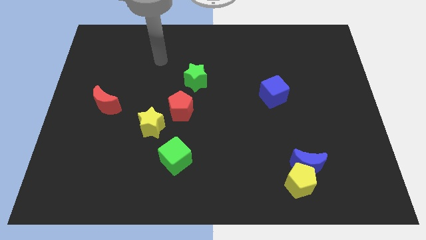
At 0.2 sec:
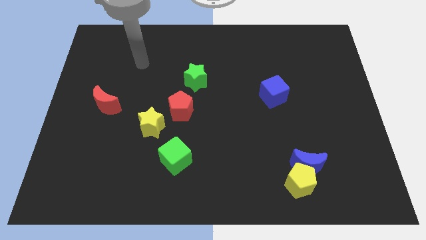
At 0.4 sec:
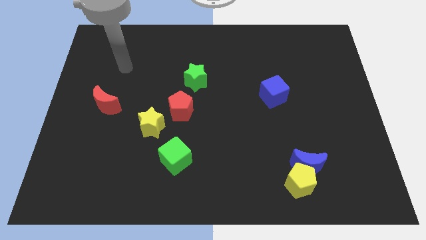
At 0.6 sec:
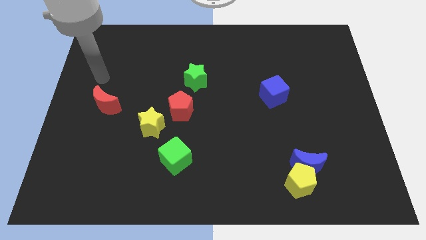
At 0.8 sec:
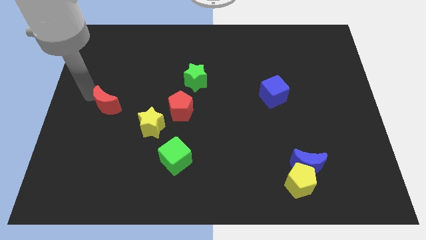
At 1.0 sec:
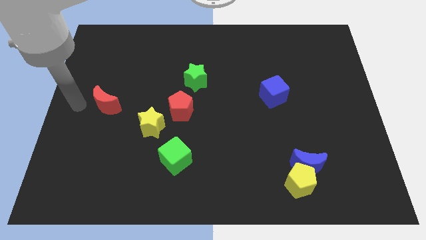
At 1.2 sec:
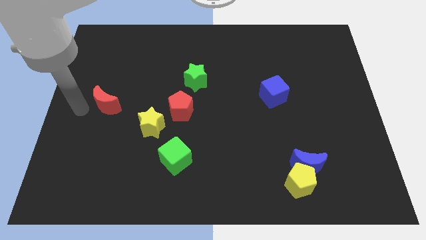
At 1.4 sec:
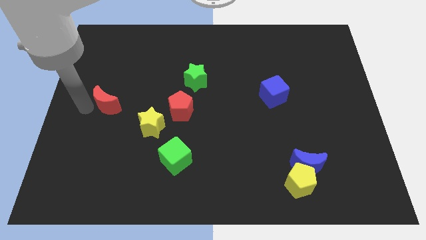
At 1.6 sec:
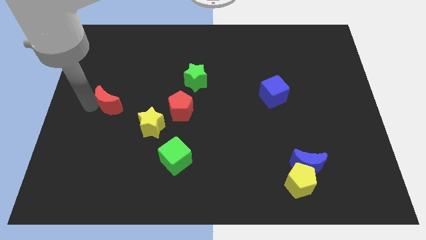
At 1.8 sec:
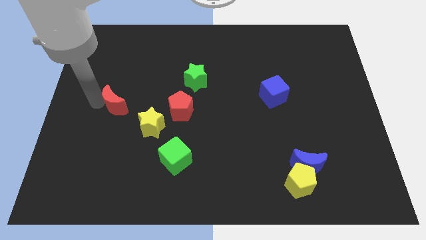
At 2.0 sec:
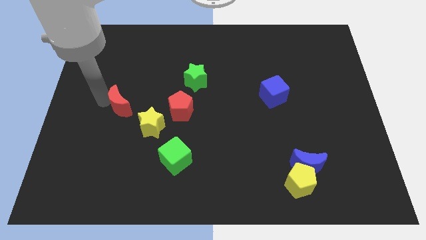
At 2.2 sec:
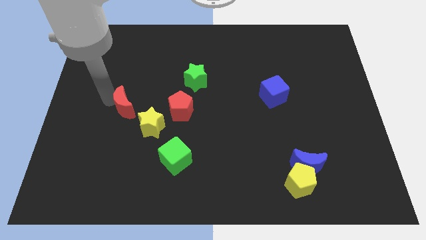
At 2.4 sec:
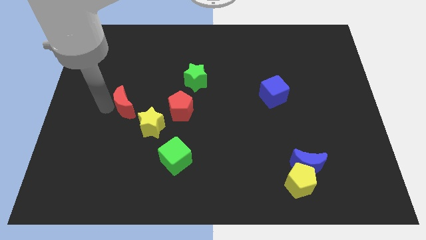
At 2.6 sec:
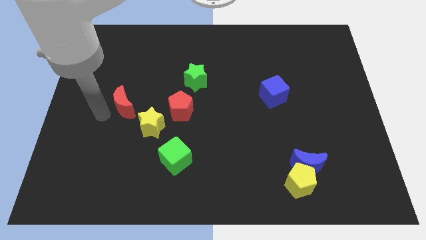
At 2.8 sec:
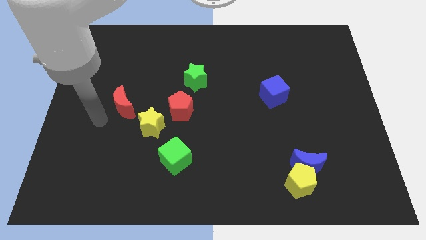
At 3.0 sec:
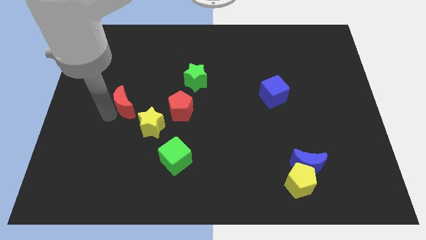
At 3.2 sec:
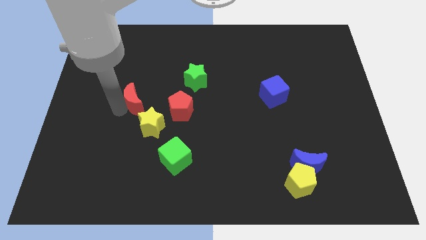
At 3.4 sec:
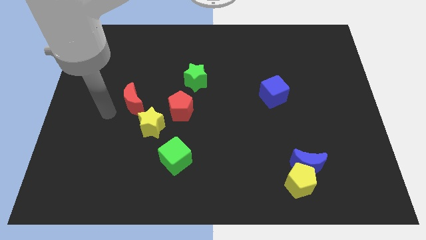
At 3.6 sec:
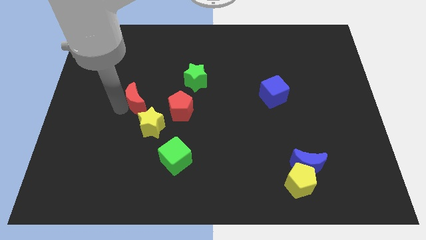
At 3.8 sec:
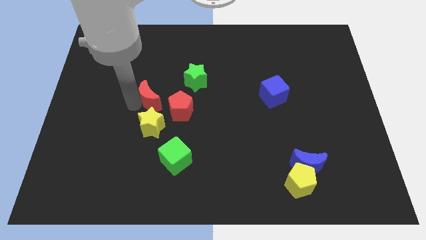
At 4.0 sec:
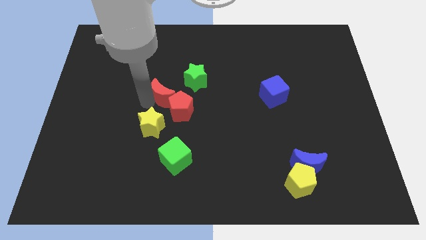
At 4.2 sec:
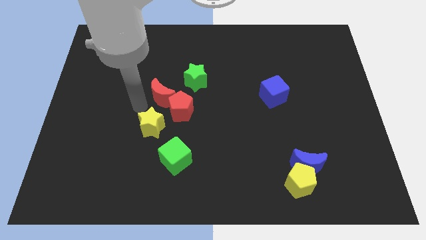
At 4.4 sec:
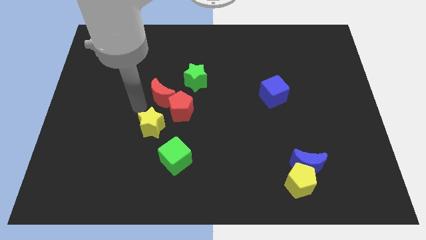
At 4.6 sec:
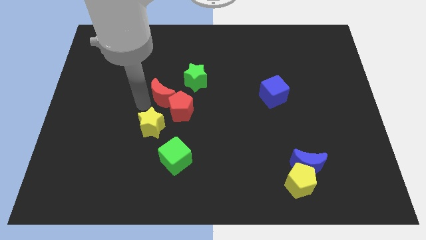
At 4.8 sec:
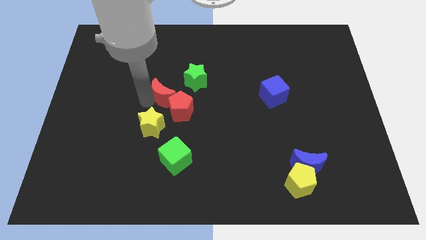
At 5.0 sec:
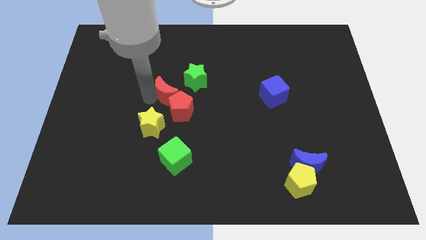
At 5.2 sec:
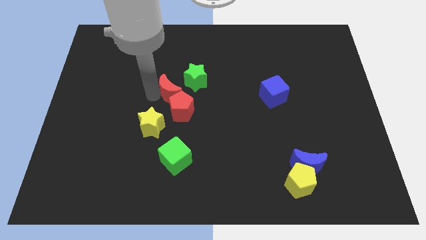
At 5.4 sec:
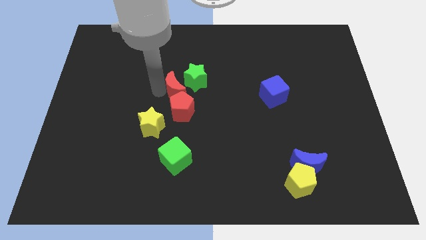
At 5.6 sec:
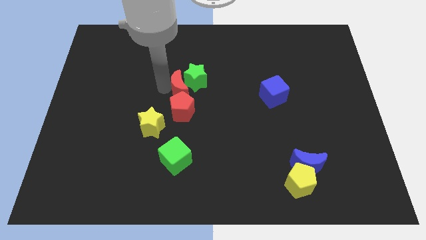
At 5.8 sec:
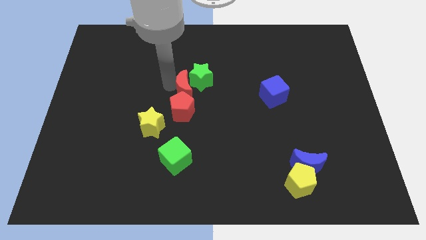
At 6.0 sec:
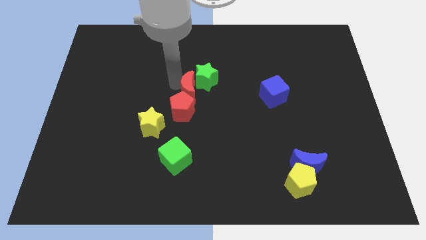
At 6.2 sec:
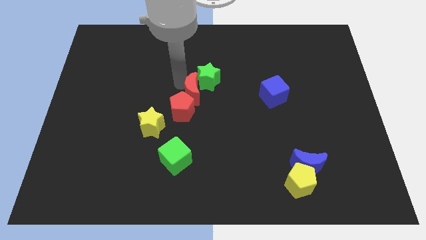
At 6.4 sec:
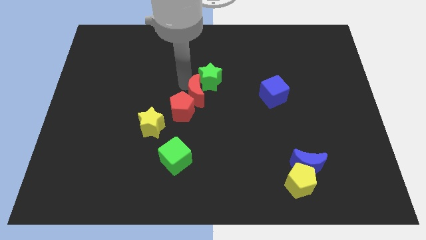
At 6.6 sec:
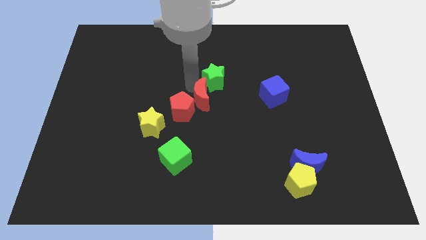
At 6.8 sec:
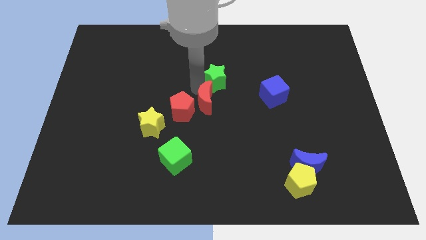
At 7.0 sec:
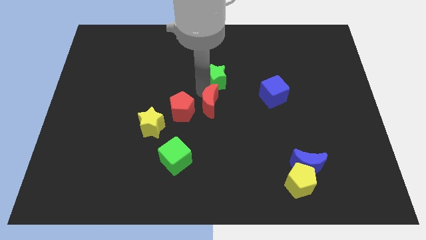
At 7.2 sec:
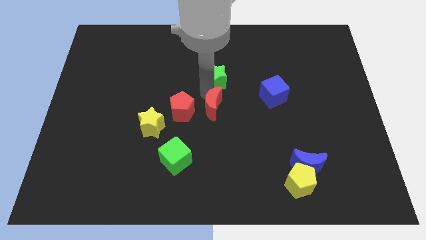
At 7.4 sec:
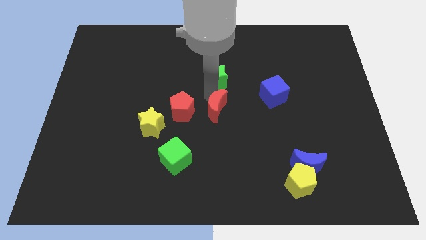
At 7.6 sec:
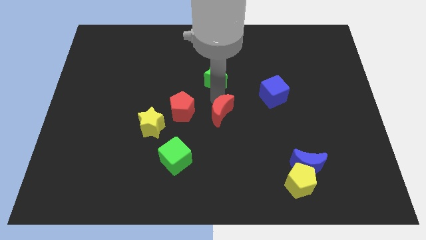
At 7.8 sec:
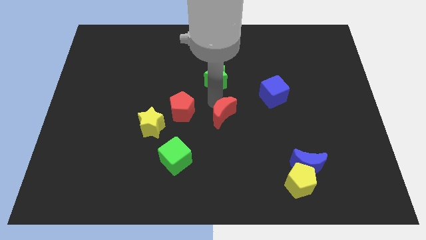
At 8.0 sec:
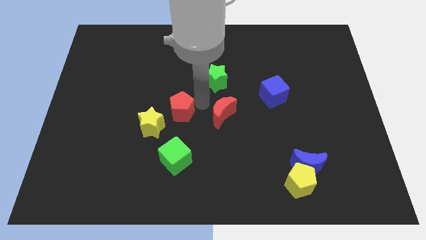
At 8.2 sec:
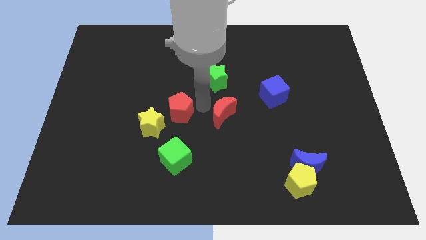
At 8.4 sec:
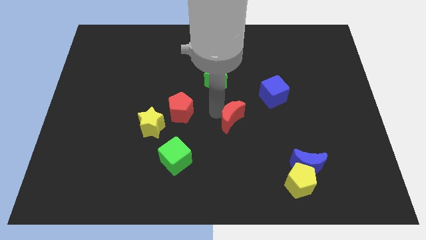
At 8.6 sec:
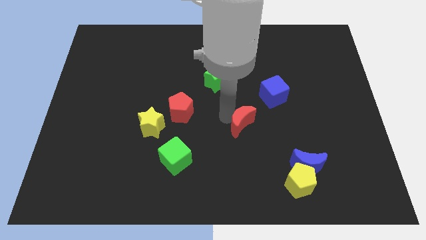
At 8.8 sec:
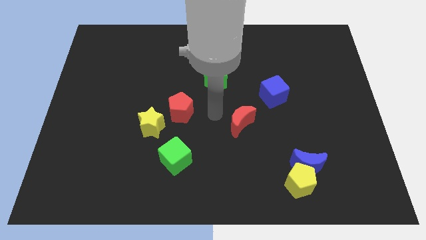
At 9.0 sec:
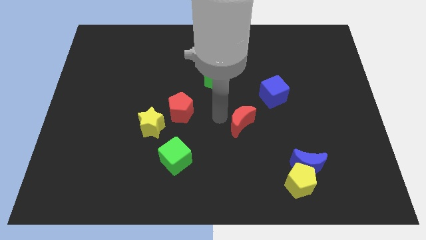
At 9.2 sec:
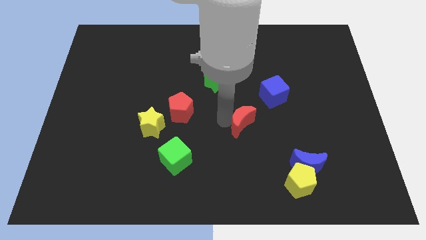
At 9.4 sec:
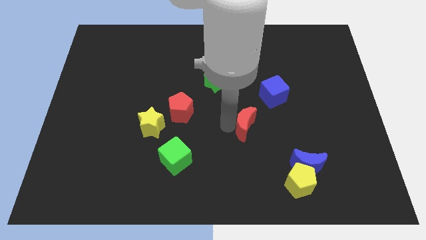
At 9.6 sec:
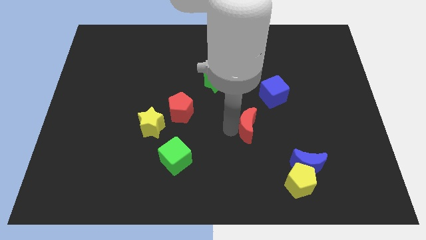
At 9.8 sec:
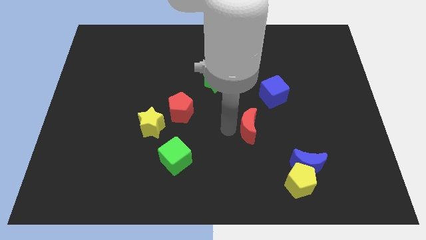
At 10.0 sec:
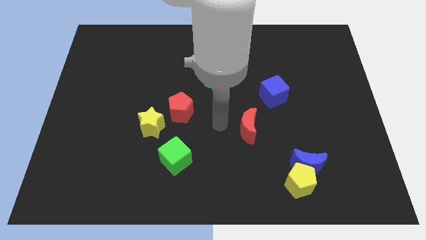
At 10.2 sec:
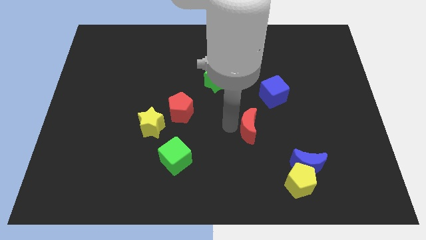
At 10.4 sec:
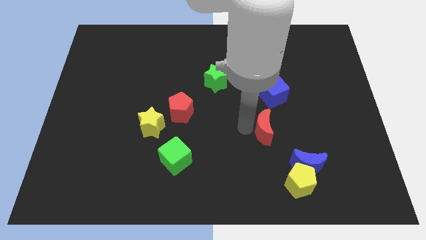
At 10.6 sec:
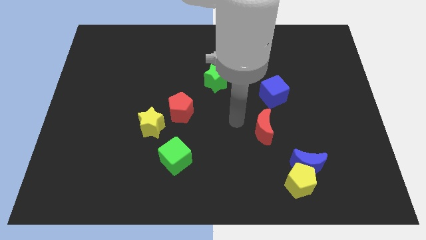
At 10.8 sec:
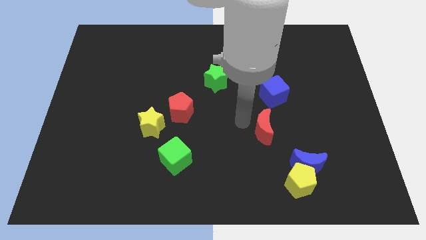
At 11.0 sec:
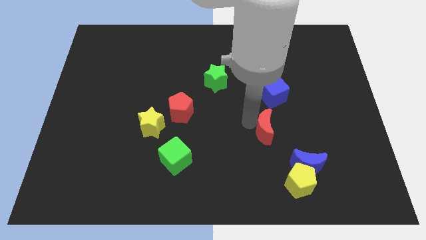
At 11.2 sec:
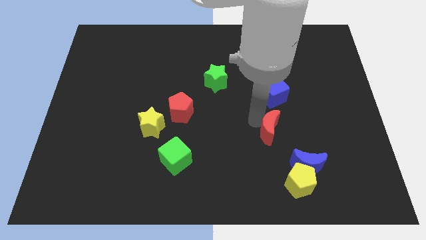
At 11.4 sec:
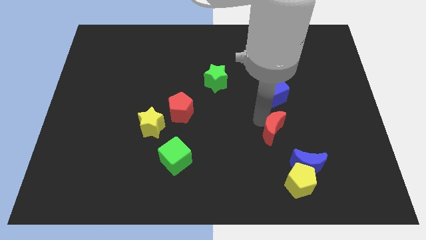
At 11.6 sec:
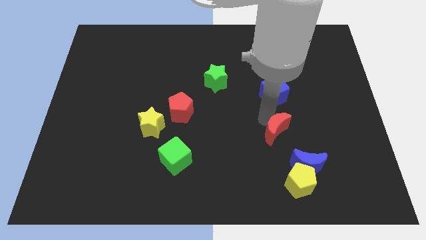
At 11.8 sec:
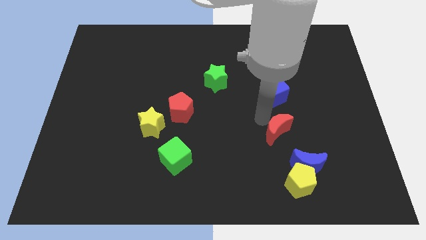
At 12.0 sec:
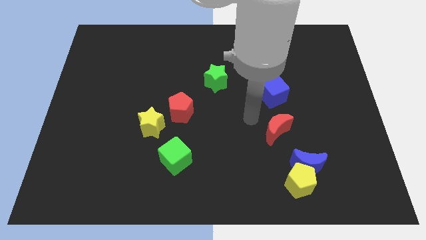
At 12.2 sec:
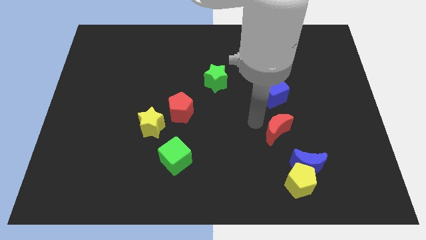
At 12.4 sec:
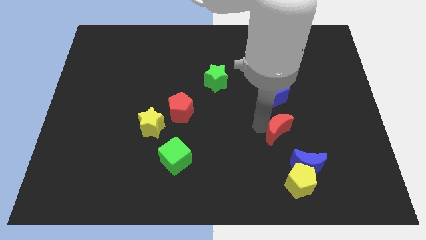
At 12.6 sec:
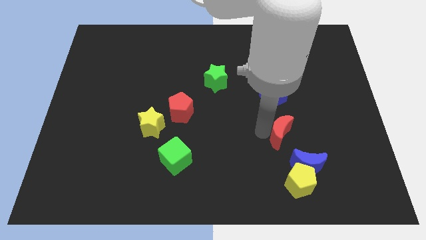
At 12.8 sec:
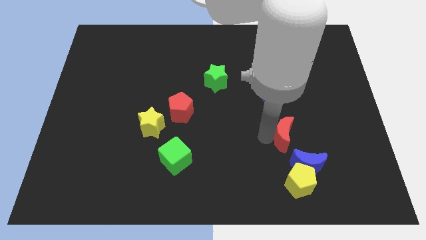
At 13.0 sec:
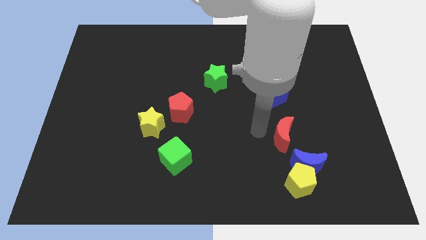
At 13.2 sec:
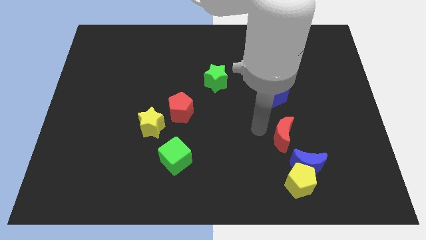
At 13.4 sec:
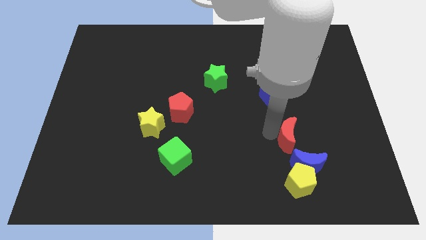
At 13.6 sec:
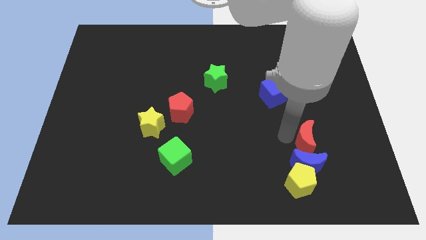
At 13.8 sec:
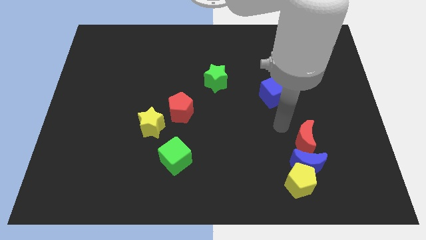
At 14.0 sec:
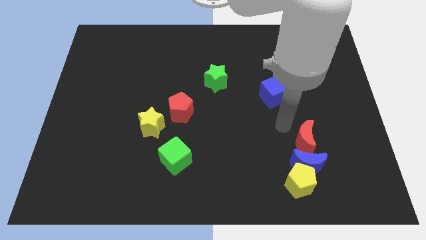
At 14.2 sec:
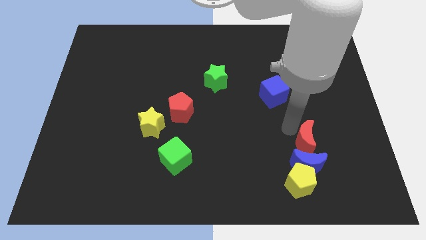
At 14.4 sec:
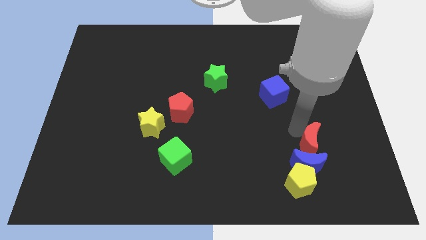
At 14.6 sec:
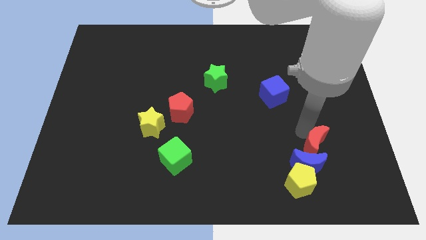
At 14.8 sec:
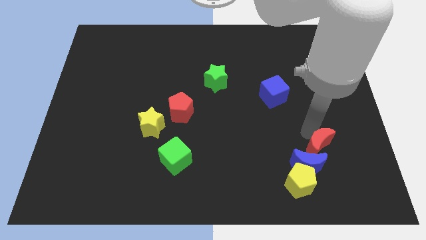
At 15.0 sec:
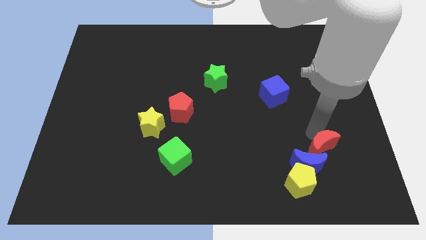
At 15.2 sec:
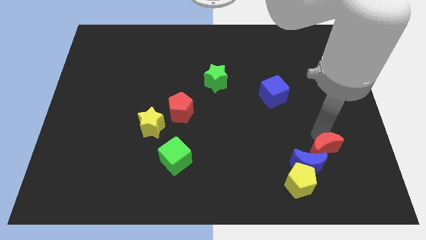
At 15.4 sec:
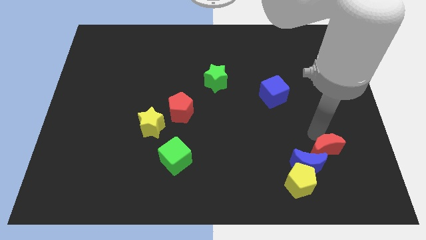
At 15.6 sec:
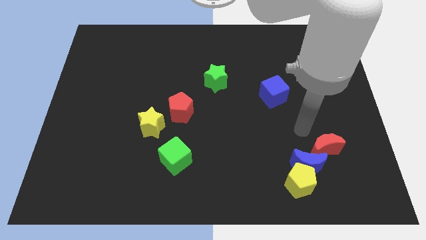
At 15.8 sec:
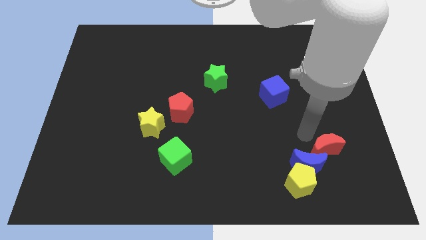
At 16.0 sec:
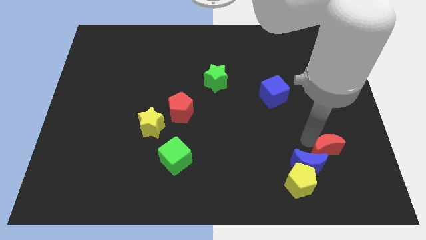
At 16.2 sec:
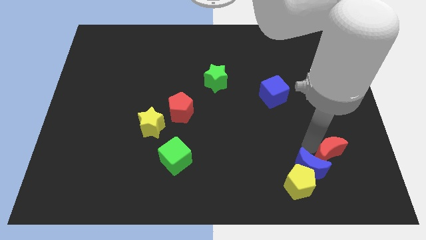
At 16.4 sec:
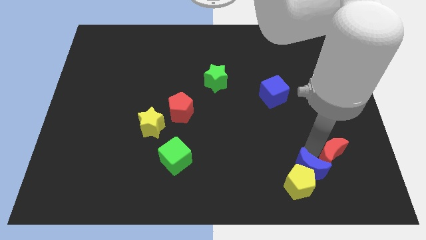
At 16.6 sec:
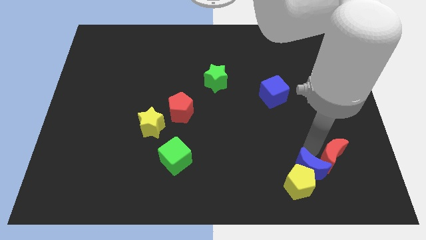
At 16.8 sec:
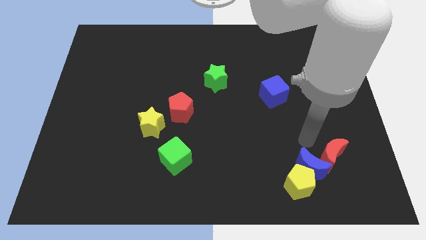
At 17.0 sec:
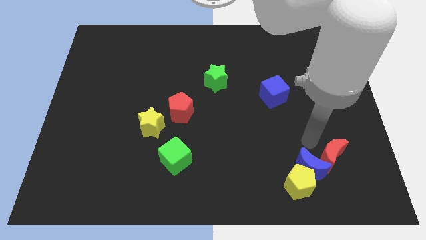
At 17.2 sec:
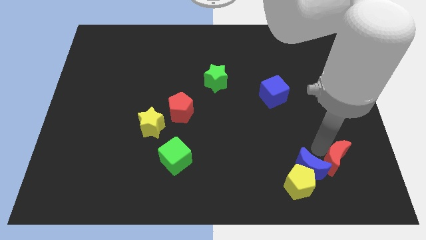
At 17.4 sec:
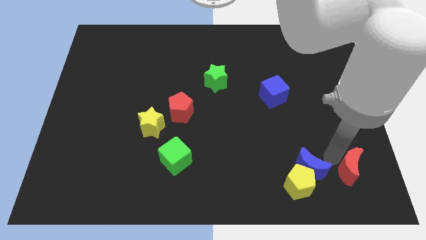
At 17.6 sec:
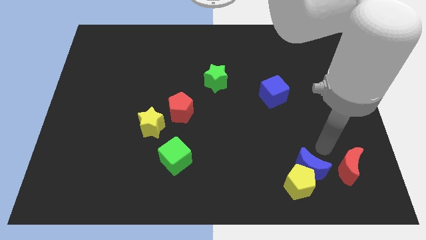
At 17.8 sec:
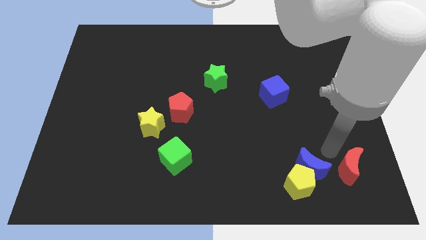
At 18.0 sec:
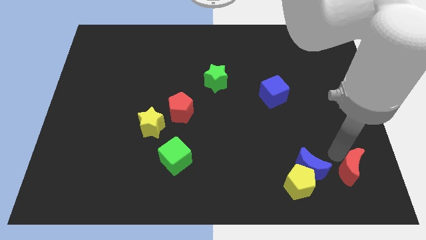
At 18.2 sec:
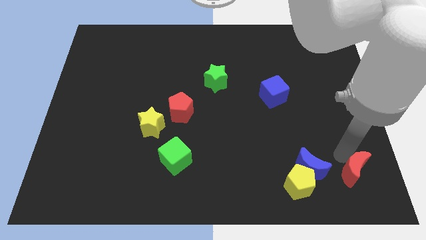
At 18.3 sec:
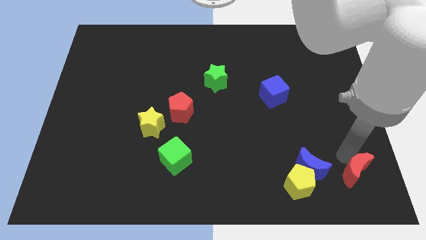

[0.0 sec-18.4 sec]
slide the red moon to the bottom right corner
